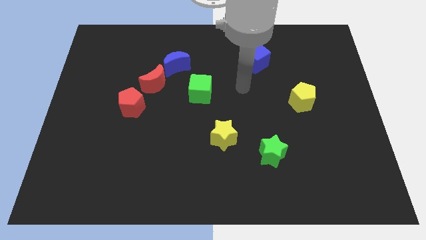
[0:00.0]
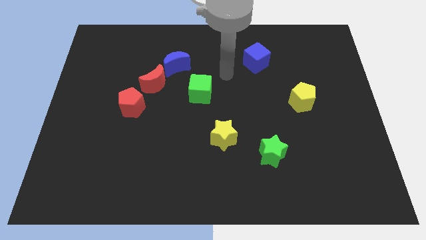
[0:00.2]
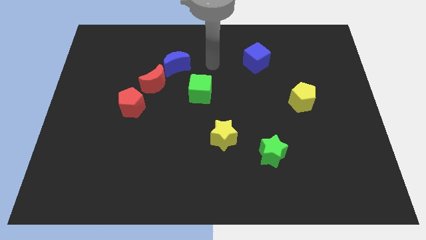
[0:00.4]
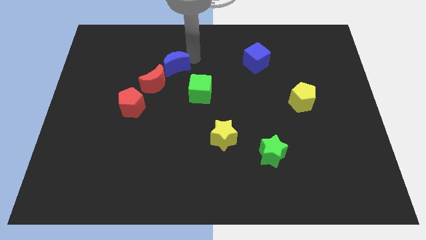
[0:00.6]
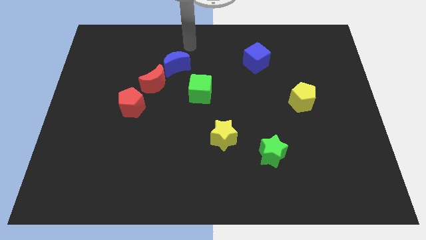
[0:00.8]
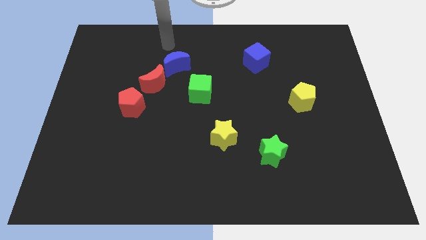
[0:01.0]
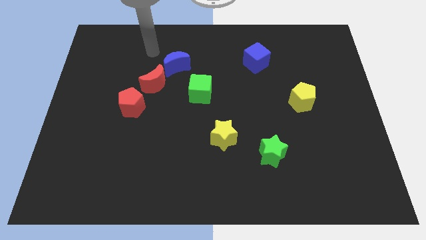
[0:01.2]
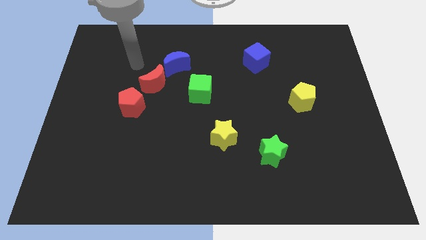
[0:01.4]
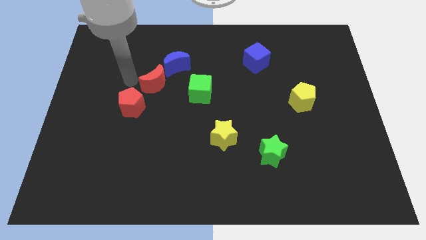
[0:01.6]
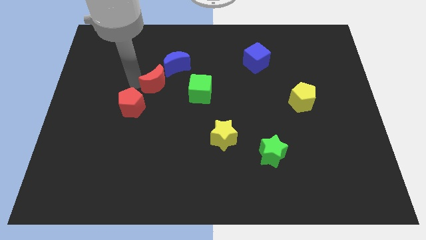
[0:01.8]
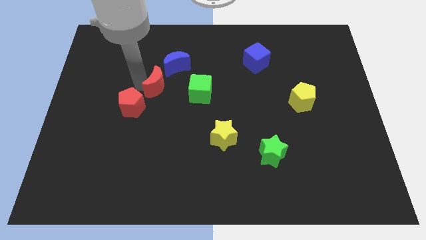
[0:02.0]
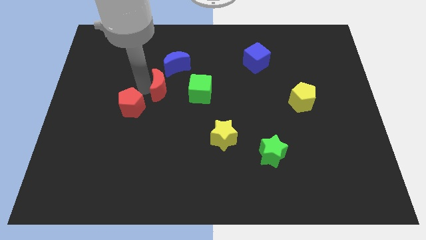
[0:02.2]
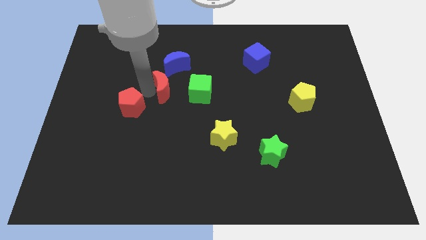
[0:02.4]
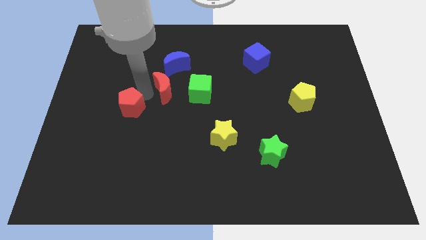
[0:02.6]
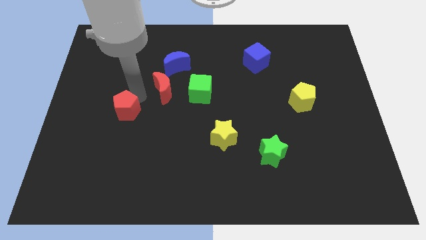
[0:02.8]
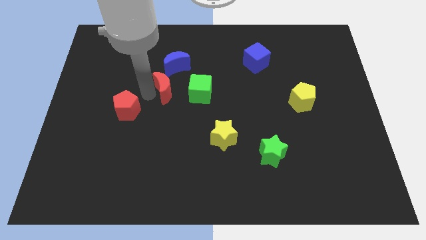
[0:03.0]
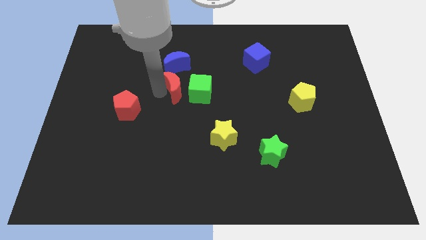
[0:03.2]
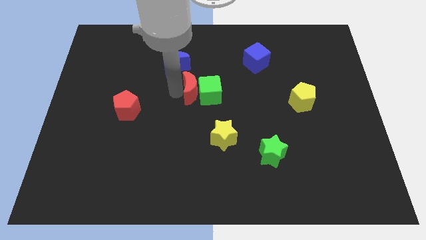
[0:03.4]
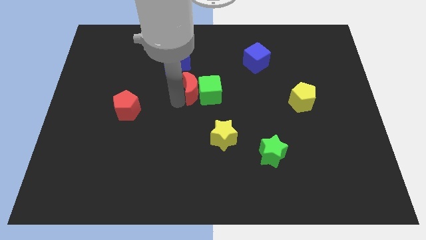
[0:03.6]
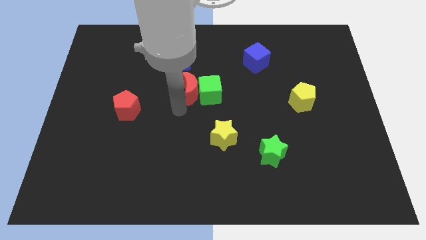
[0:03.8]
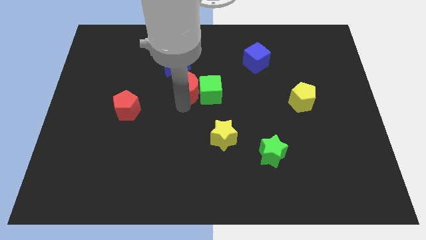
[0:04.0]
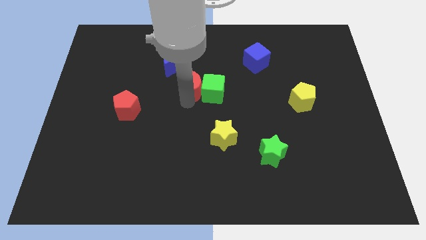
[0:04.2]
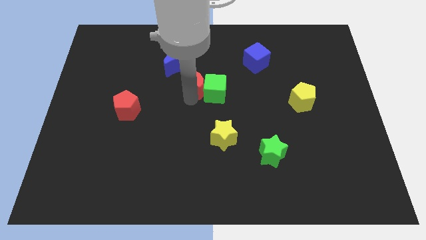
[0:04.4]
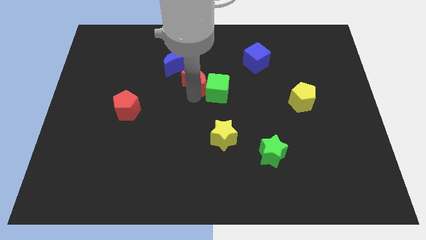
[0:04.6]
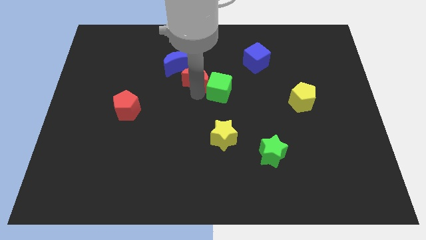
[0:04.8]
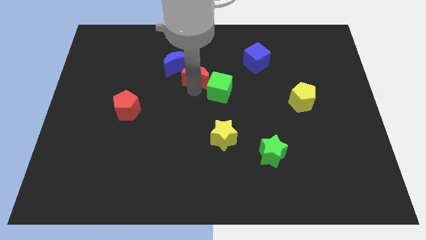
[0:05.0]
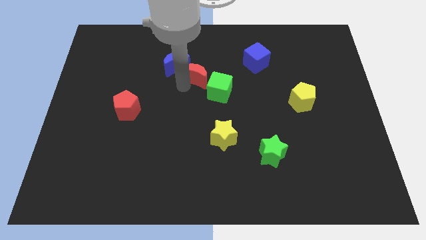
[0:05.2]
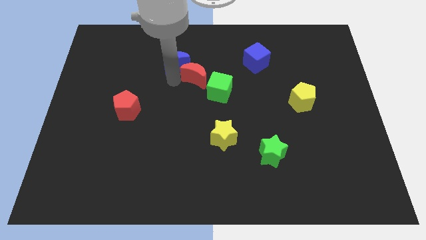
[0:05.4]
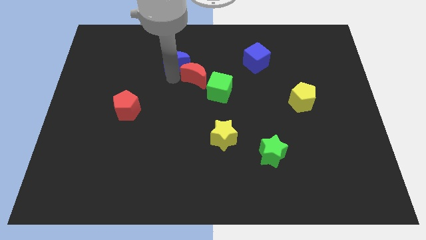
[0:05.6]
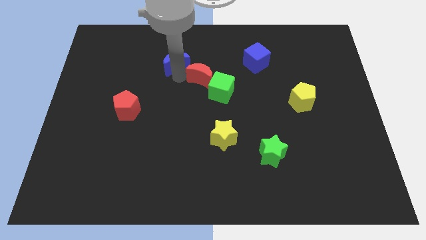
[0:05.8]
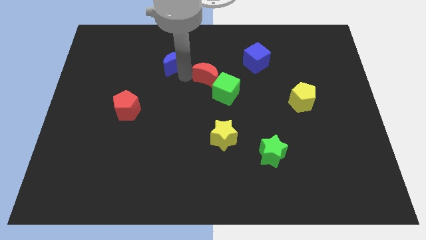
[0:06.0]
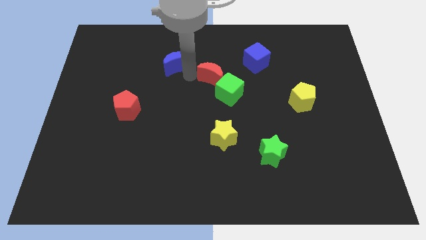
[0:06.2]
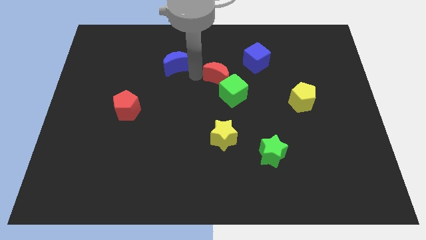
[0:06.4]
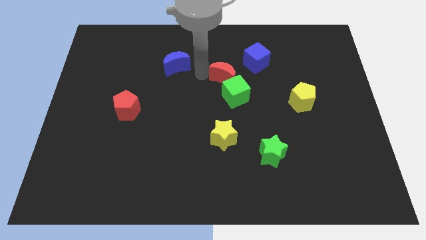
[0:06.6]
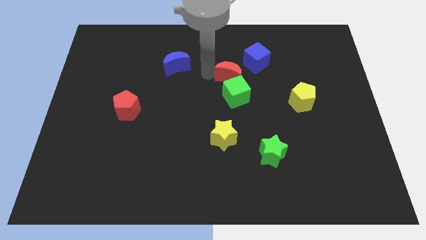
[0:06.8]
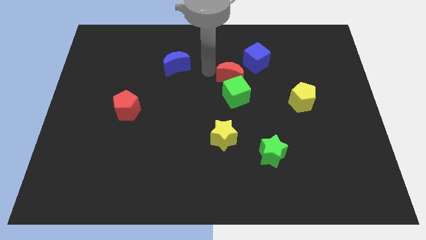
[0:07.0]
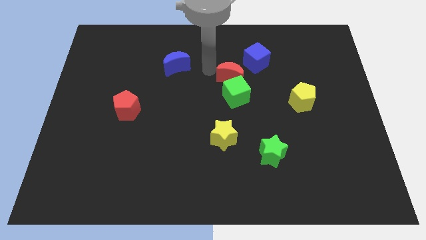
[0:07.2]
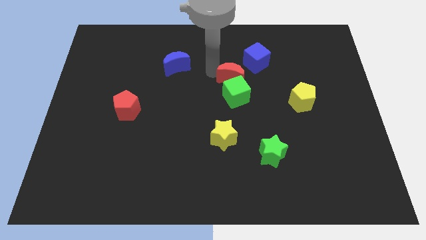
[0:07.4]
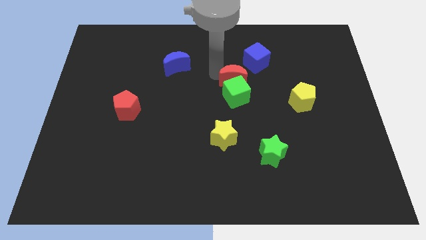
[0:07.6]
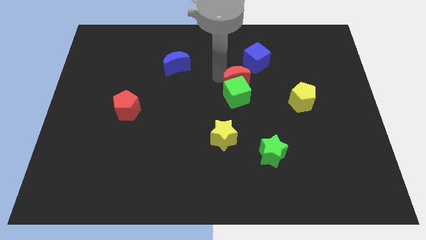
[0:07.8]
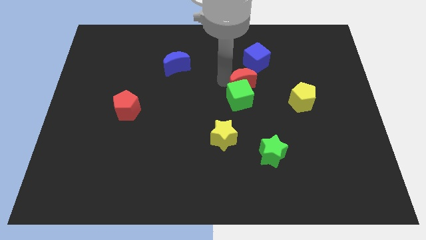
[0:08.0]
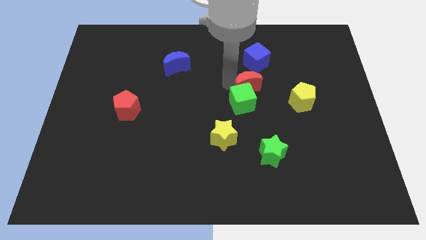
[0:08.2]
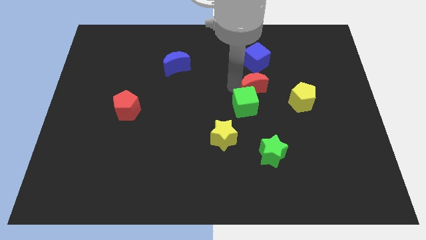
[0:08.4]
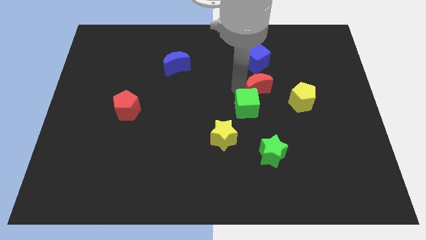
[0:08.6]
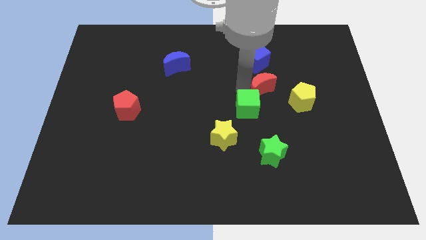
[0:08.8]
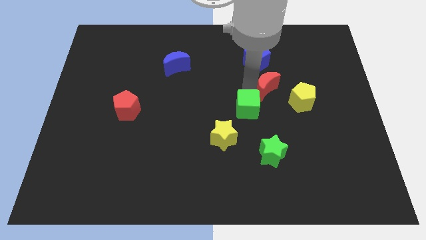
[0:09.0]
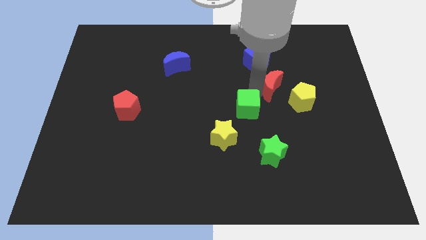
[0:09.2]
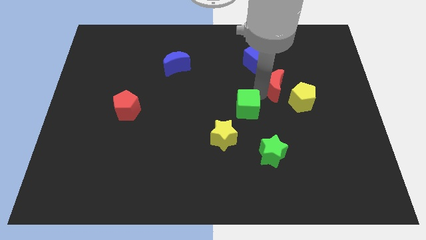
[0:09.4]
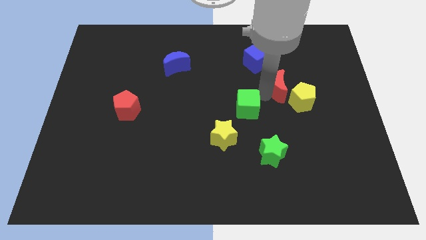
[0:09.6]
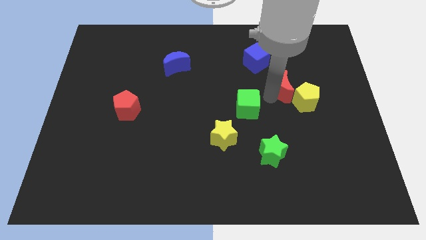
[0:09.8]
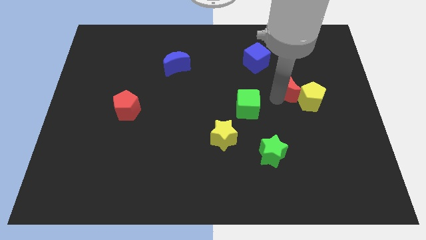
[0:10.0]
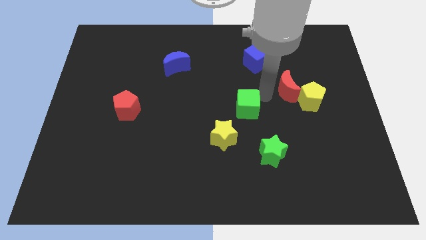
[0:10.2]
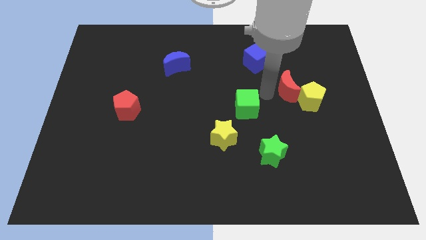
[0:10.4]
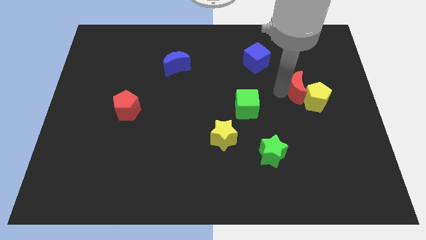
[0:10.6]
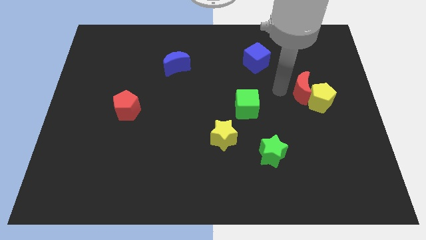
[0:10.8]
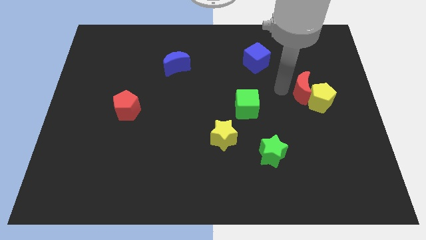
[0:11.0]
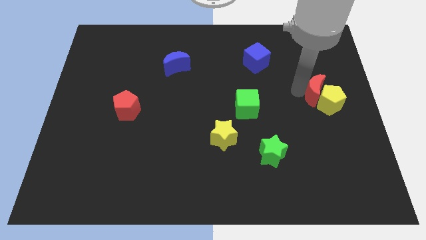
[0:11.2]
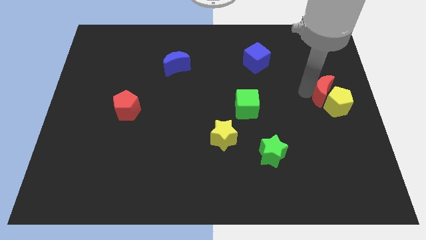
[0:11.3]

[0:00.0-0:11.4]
push the red moon to the right side of the board

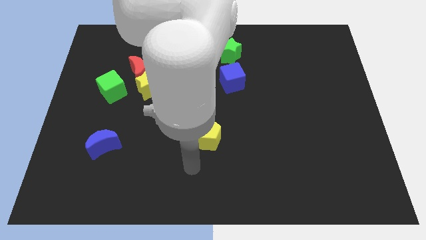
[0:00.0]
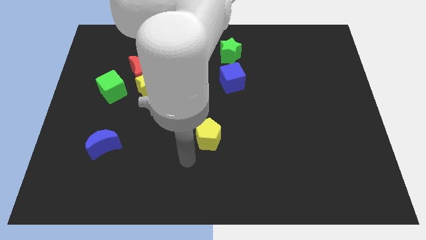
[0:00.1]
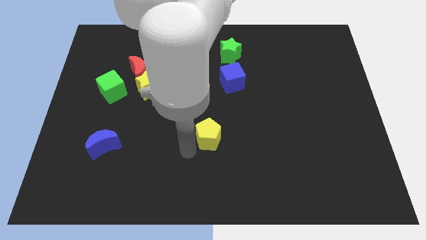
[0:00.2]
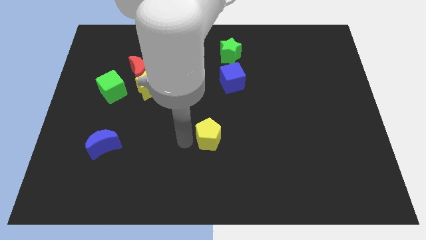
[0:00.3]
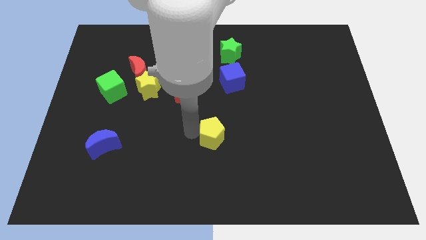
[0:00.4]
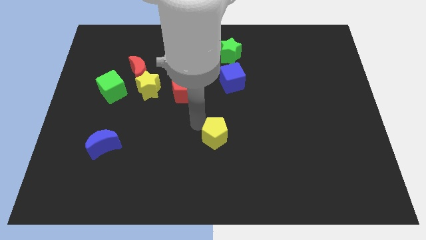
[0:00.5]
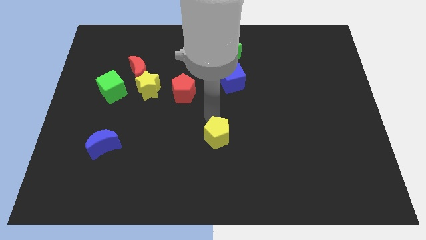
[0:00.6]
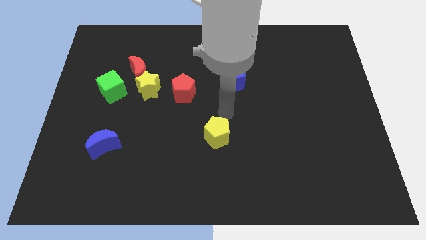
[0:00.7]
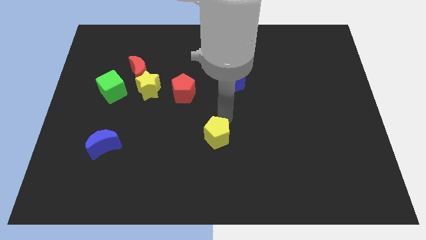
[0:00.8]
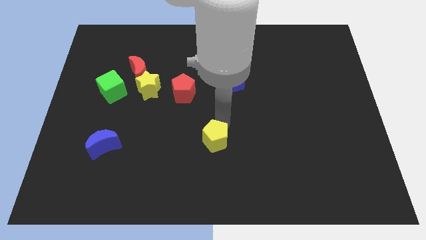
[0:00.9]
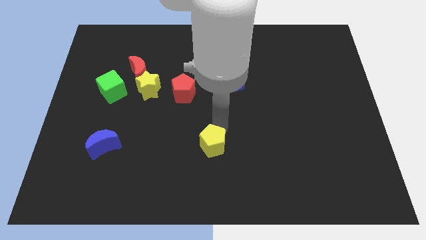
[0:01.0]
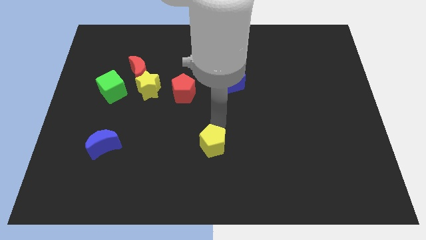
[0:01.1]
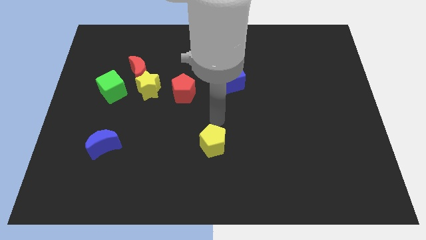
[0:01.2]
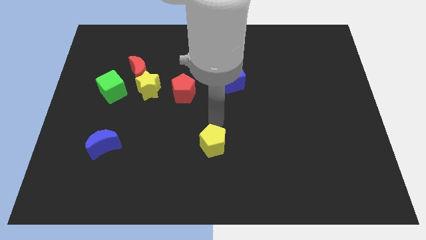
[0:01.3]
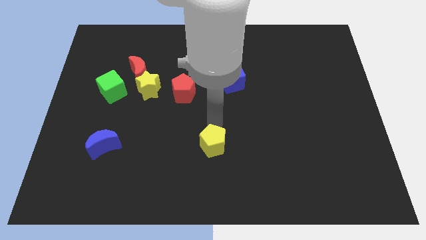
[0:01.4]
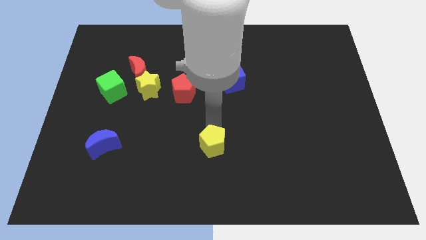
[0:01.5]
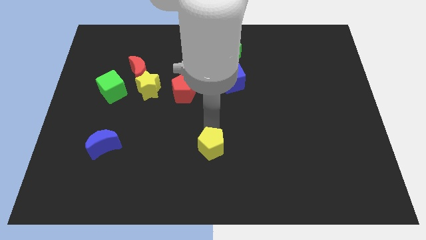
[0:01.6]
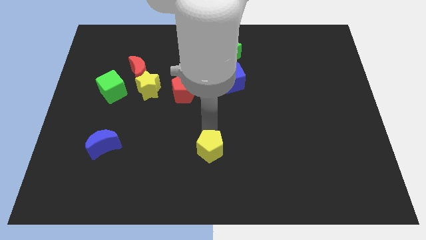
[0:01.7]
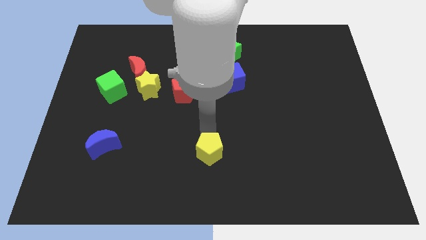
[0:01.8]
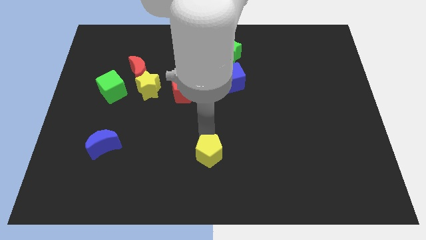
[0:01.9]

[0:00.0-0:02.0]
push the yellow pentagon to the bottom
